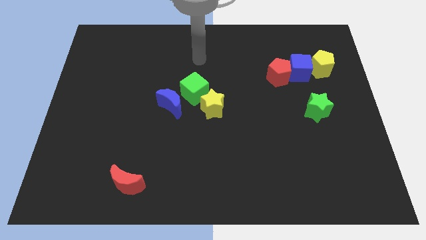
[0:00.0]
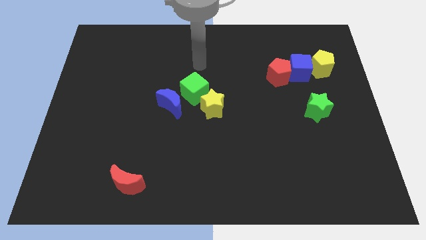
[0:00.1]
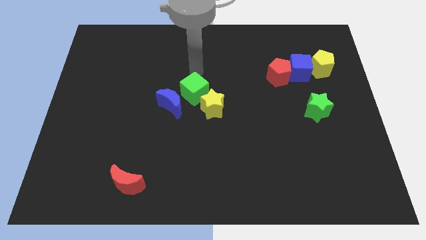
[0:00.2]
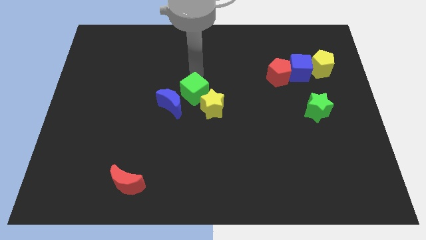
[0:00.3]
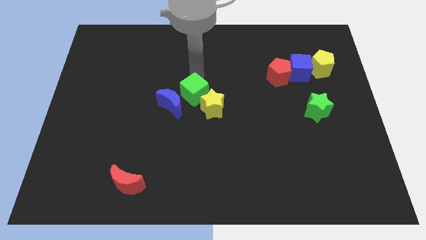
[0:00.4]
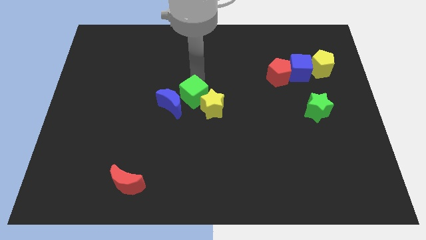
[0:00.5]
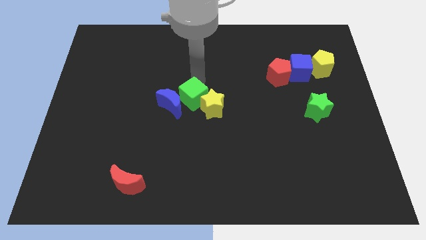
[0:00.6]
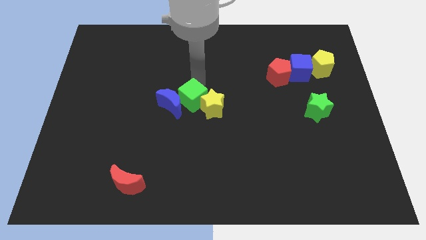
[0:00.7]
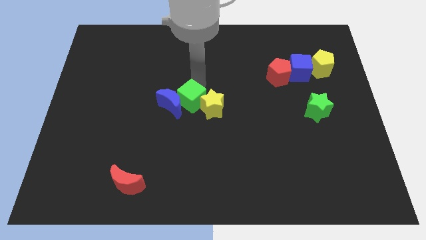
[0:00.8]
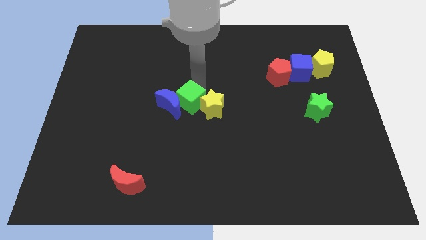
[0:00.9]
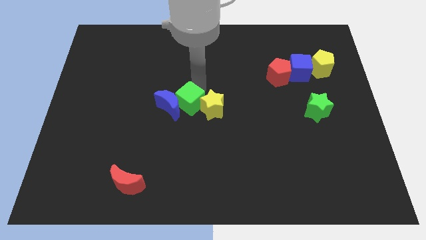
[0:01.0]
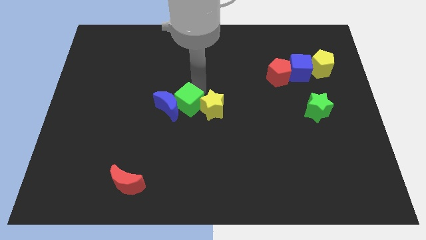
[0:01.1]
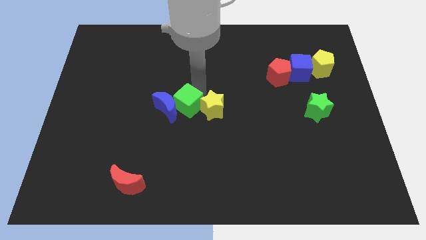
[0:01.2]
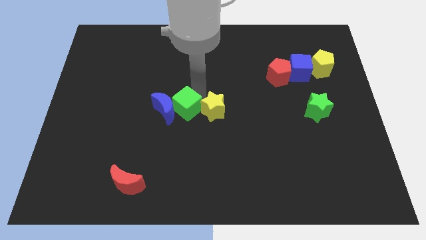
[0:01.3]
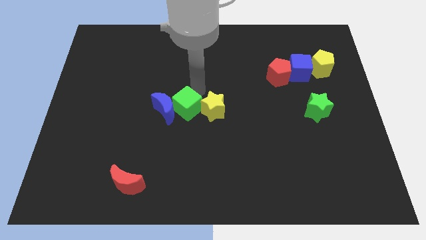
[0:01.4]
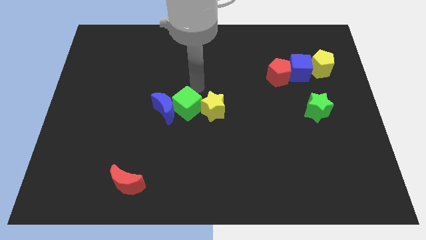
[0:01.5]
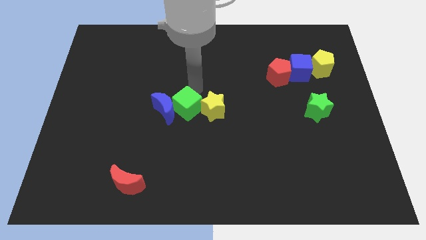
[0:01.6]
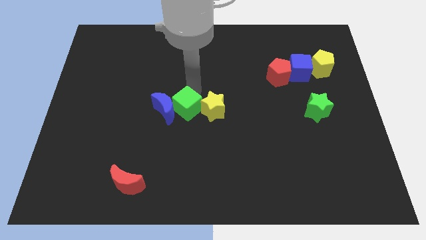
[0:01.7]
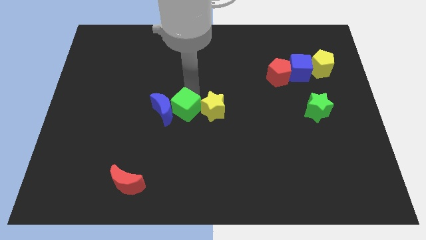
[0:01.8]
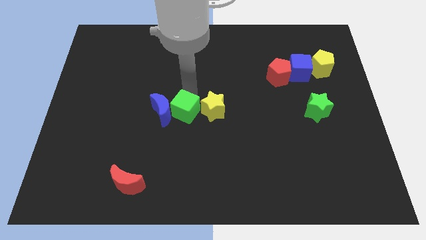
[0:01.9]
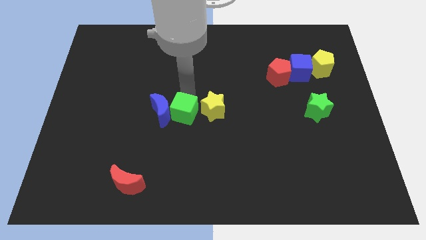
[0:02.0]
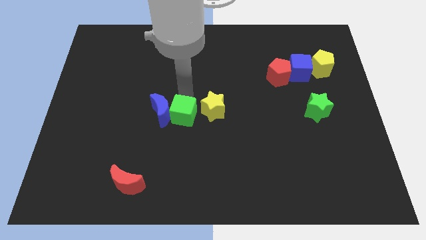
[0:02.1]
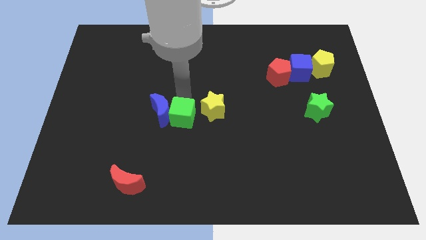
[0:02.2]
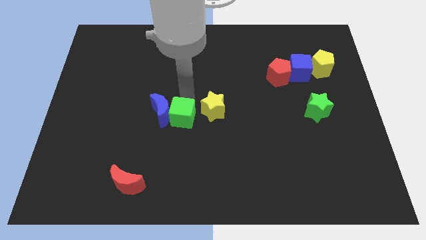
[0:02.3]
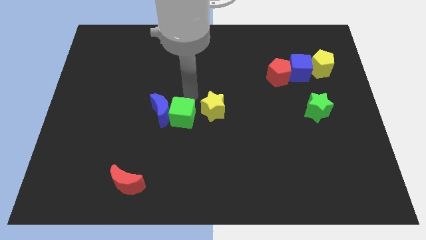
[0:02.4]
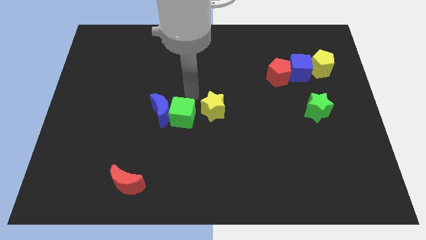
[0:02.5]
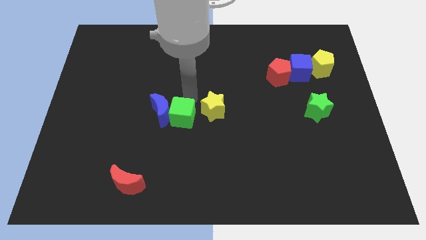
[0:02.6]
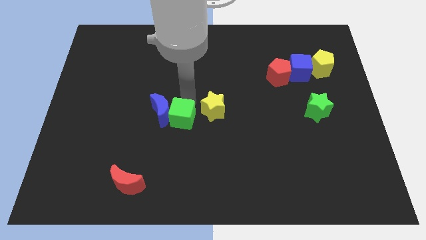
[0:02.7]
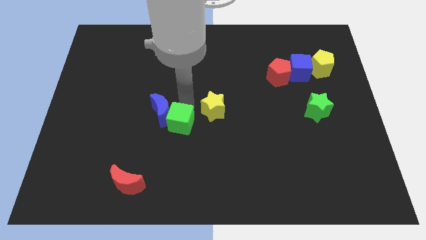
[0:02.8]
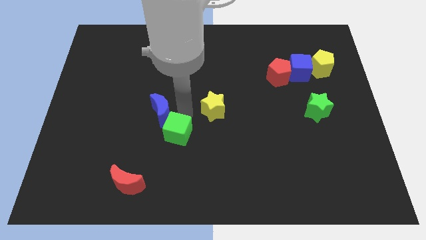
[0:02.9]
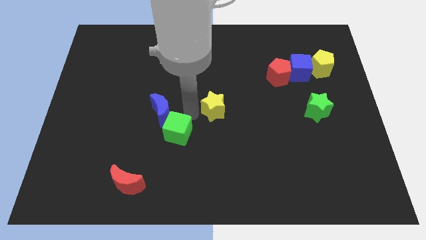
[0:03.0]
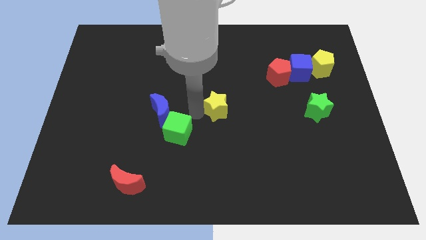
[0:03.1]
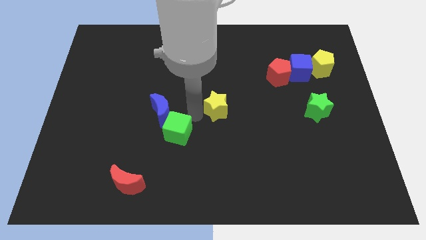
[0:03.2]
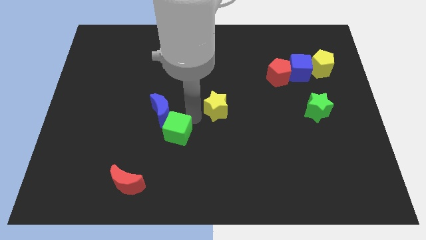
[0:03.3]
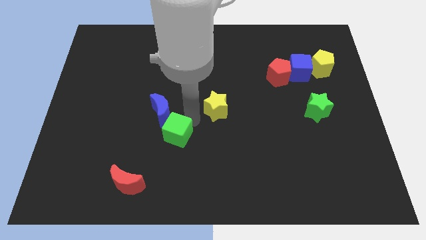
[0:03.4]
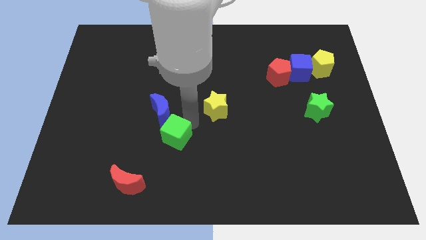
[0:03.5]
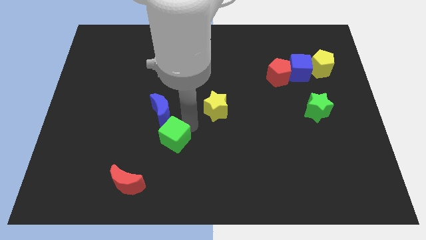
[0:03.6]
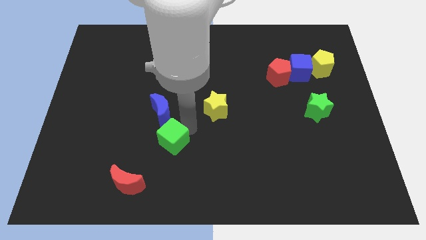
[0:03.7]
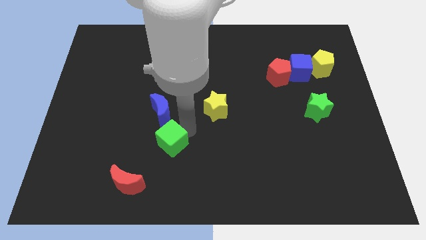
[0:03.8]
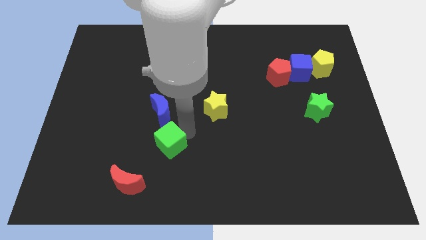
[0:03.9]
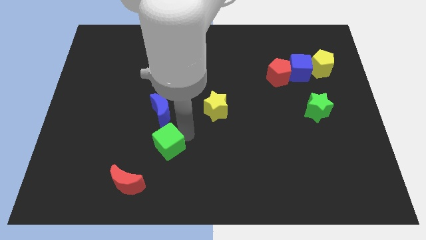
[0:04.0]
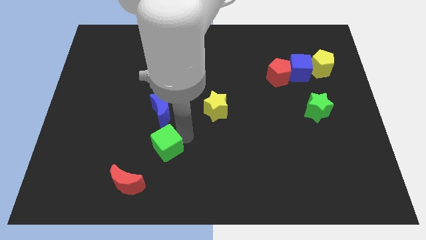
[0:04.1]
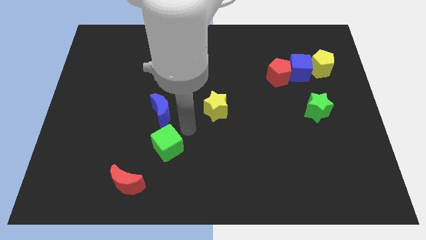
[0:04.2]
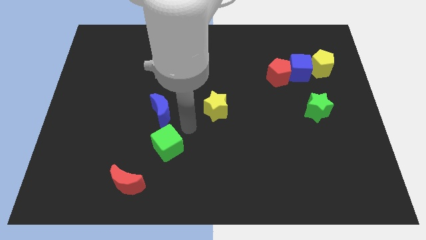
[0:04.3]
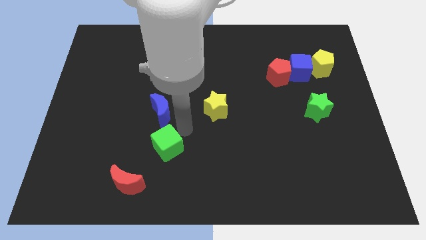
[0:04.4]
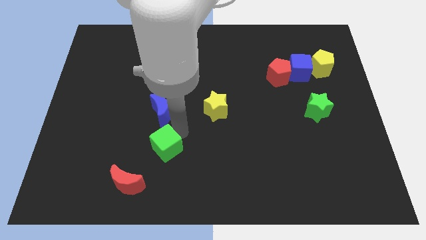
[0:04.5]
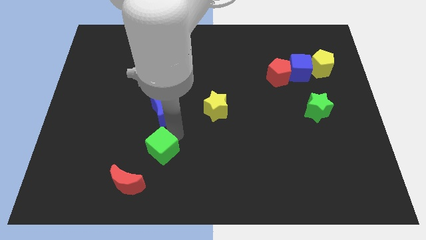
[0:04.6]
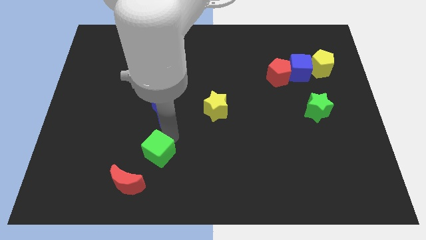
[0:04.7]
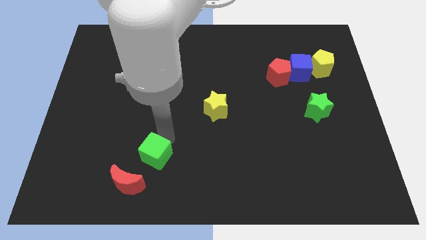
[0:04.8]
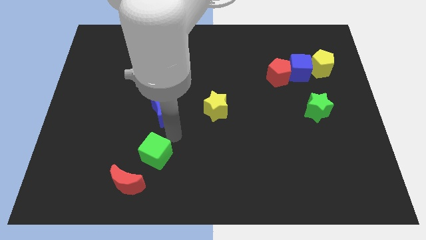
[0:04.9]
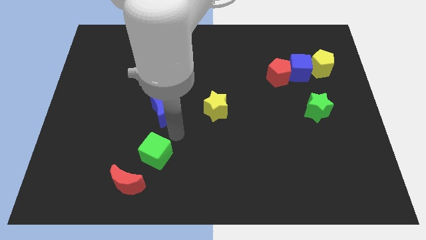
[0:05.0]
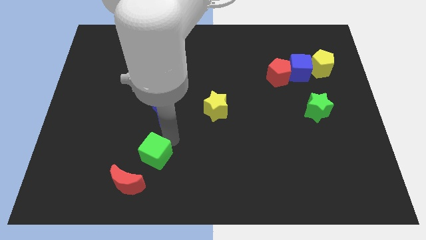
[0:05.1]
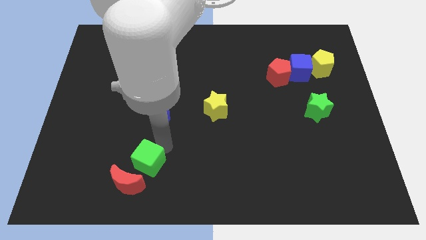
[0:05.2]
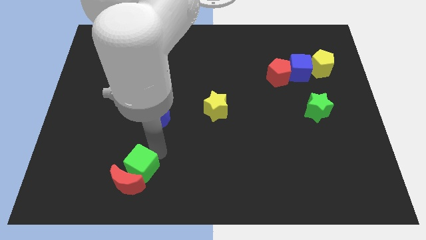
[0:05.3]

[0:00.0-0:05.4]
slide the green cube towards the red moon

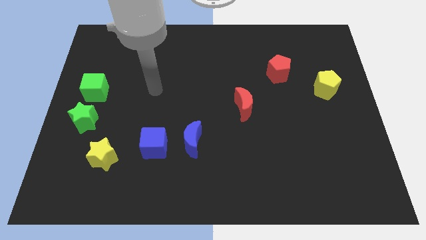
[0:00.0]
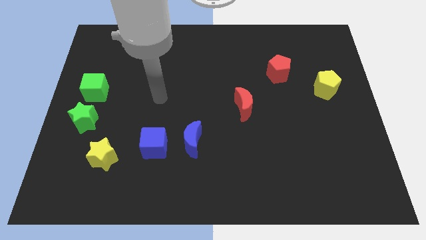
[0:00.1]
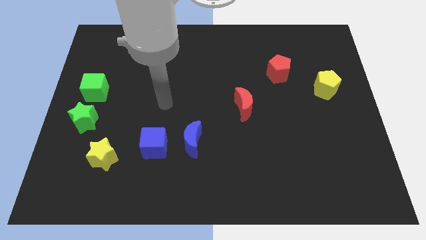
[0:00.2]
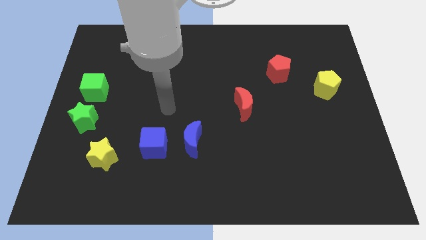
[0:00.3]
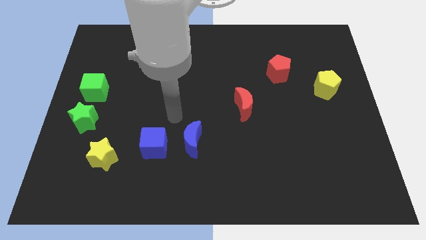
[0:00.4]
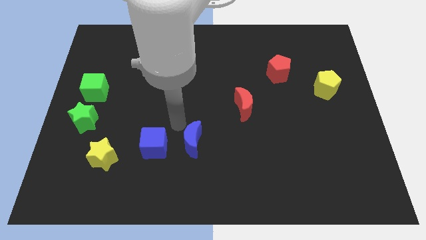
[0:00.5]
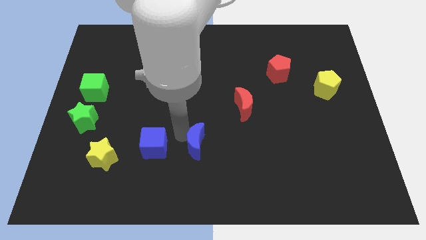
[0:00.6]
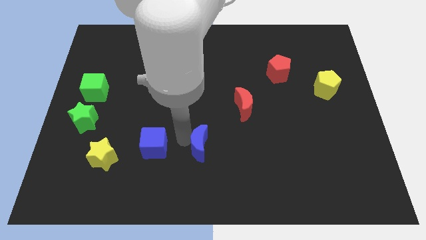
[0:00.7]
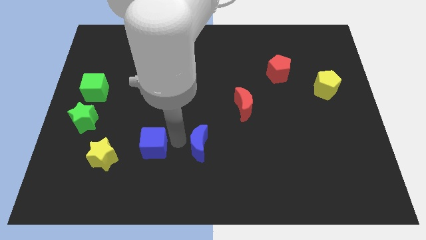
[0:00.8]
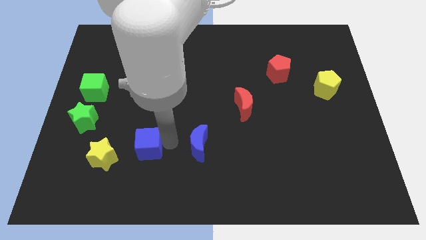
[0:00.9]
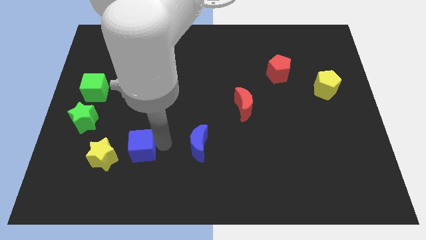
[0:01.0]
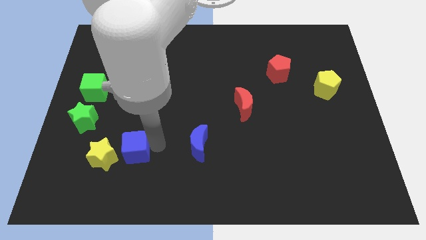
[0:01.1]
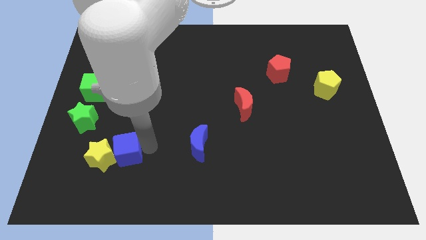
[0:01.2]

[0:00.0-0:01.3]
move the blue cube close to the yellow star

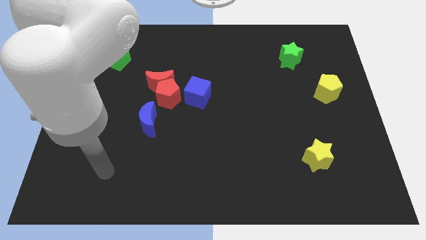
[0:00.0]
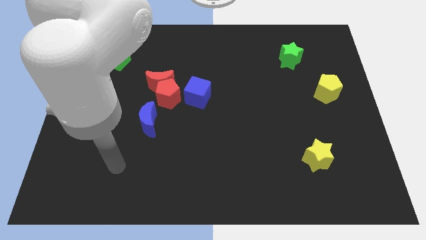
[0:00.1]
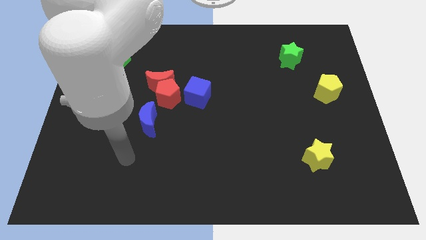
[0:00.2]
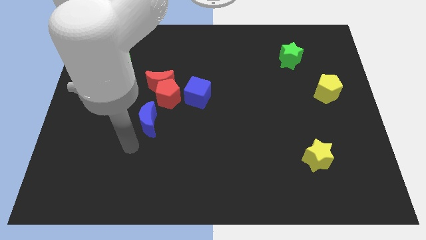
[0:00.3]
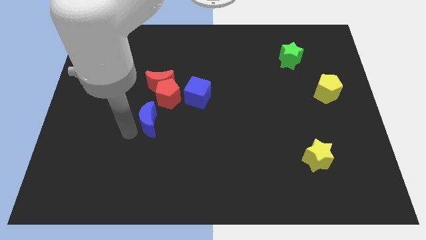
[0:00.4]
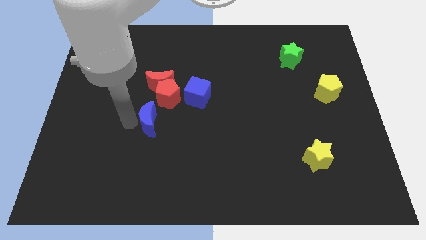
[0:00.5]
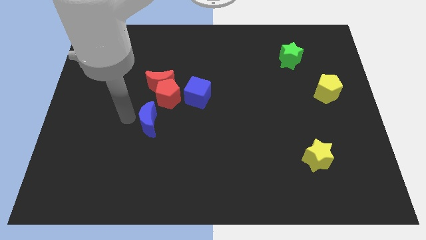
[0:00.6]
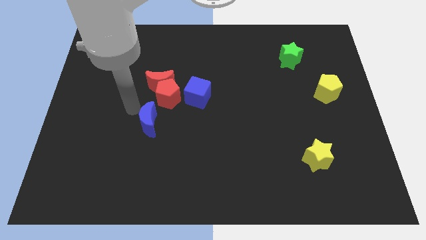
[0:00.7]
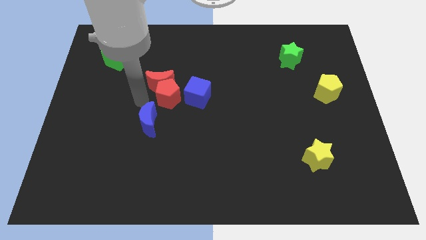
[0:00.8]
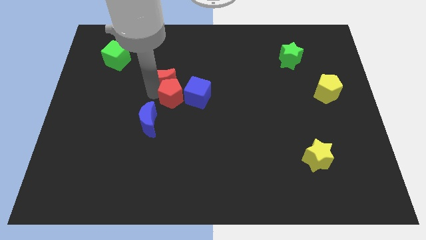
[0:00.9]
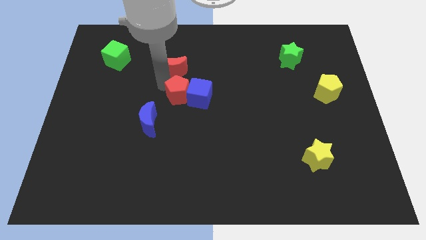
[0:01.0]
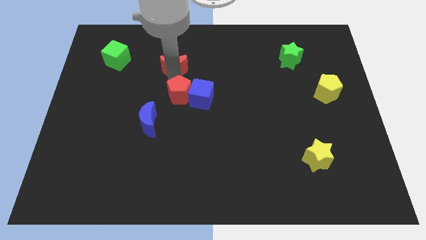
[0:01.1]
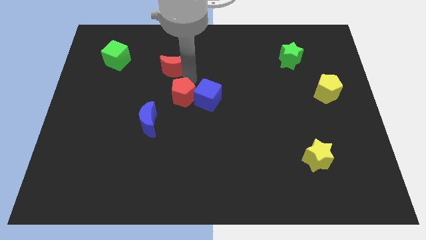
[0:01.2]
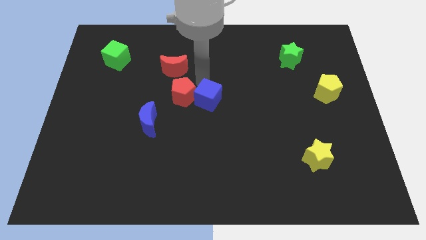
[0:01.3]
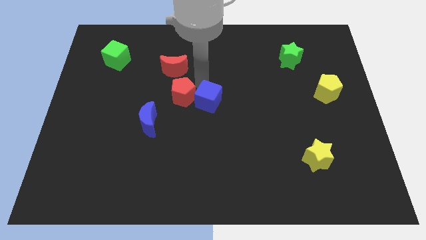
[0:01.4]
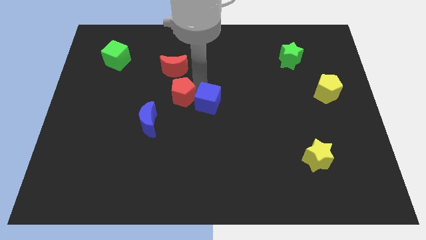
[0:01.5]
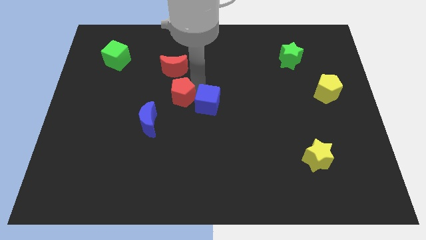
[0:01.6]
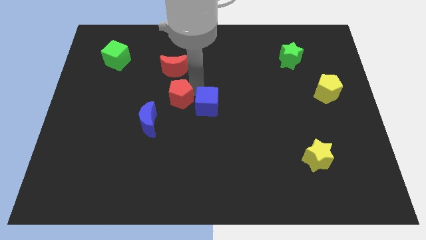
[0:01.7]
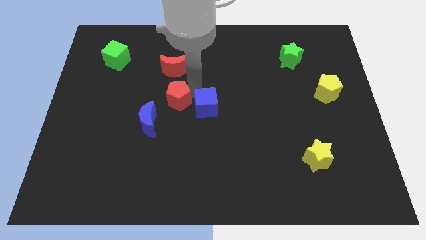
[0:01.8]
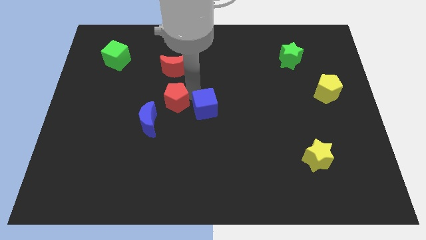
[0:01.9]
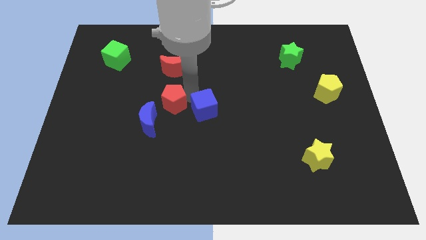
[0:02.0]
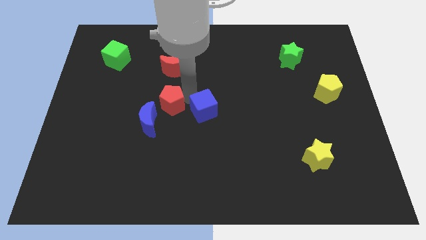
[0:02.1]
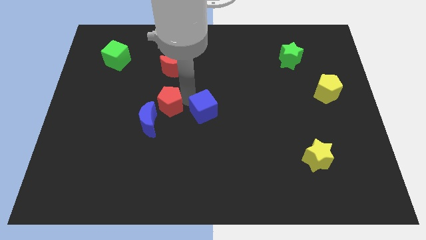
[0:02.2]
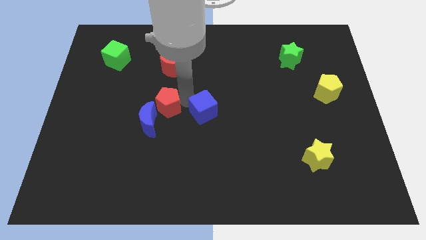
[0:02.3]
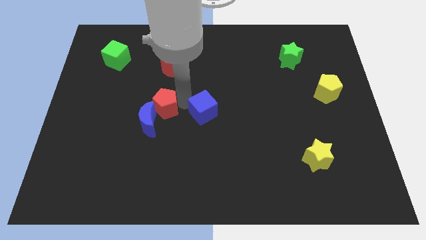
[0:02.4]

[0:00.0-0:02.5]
push the red pentagon next to the blue moon
